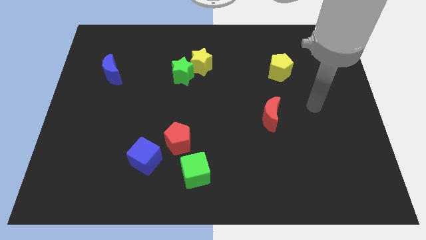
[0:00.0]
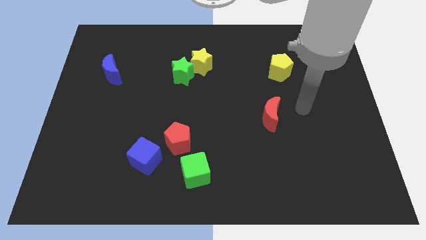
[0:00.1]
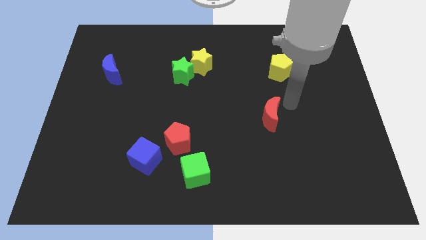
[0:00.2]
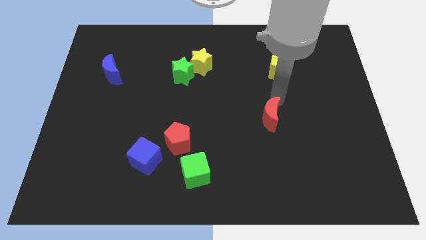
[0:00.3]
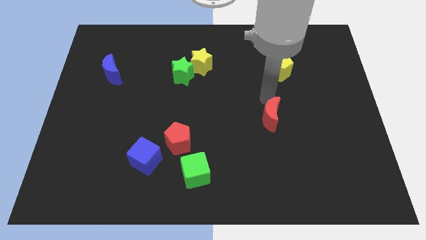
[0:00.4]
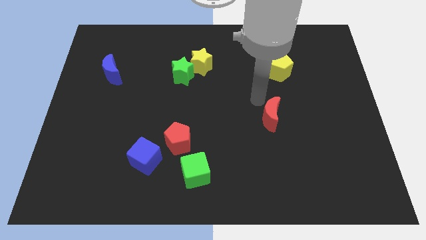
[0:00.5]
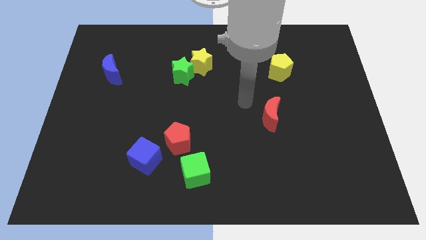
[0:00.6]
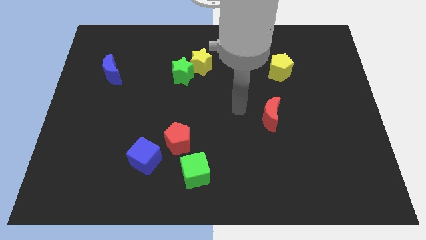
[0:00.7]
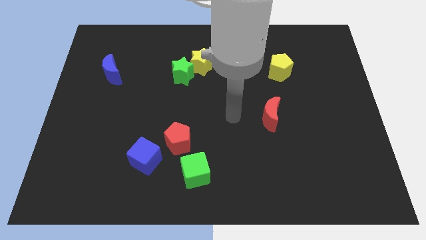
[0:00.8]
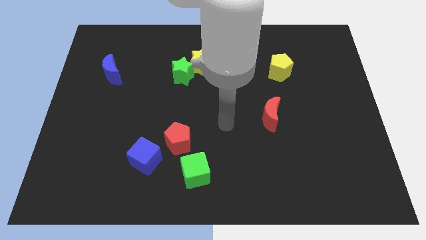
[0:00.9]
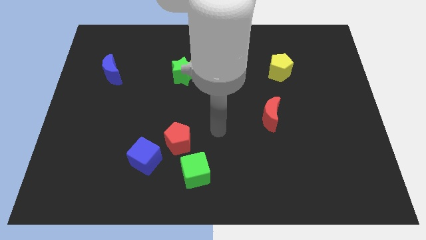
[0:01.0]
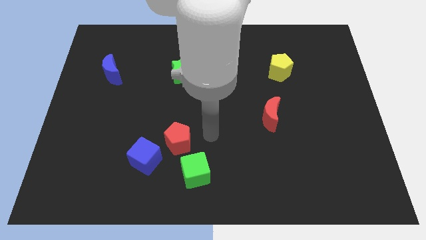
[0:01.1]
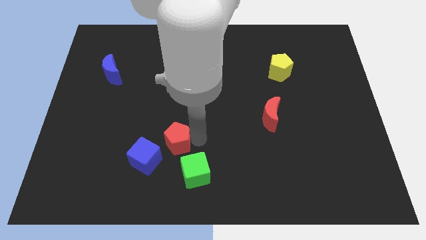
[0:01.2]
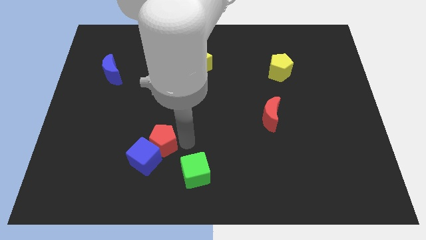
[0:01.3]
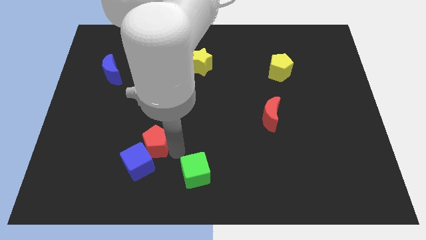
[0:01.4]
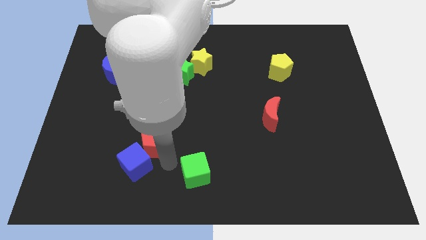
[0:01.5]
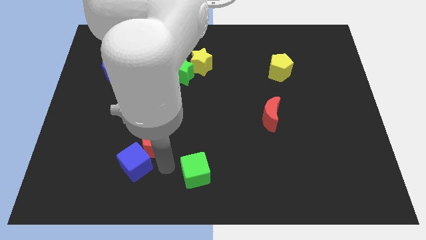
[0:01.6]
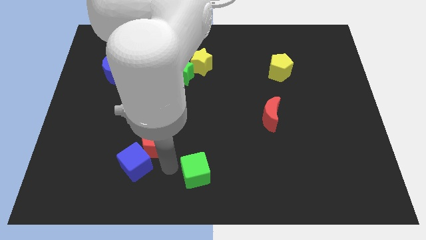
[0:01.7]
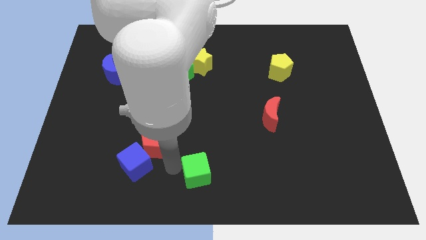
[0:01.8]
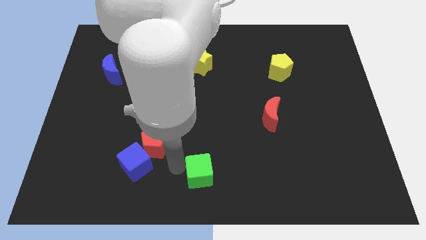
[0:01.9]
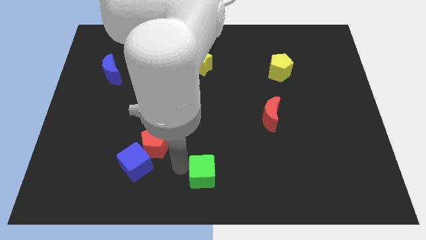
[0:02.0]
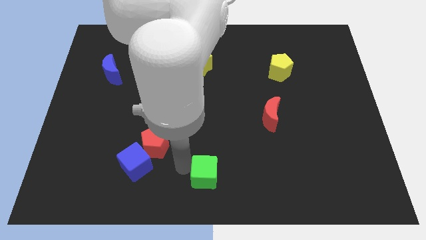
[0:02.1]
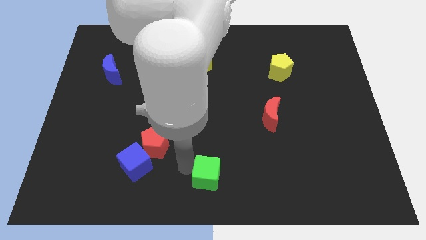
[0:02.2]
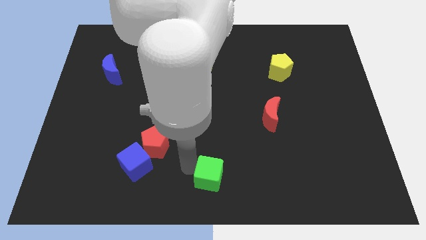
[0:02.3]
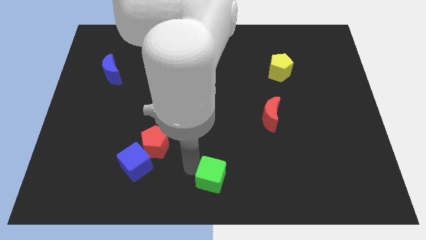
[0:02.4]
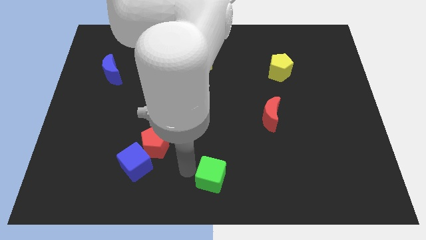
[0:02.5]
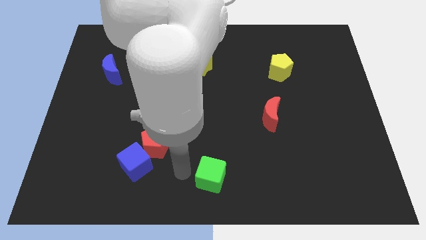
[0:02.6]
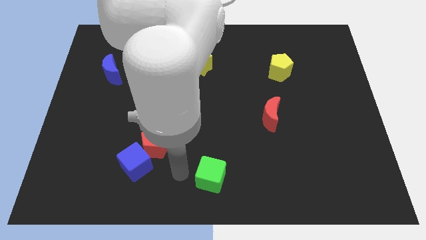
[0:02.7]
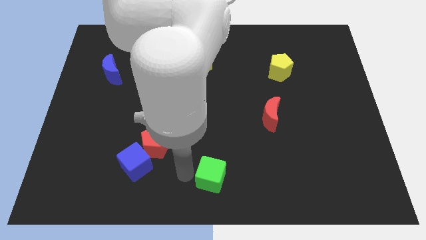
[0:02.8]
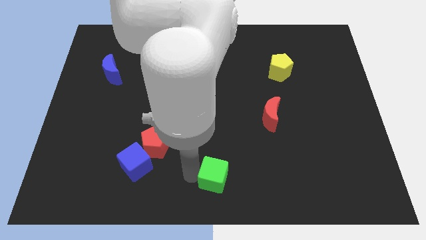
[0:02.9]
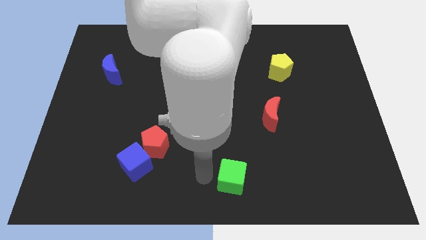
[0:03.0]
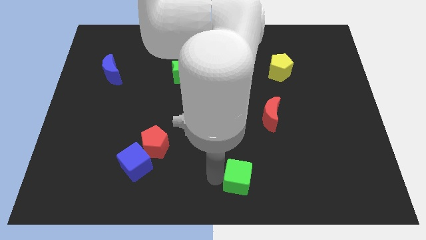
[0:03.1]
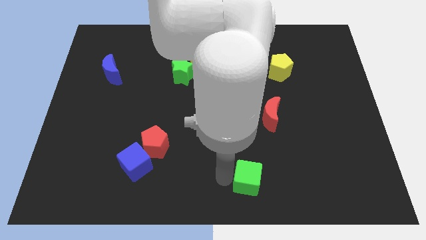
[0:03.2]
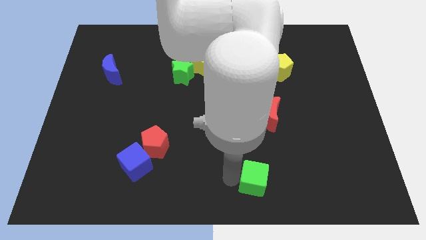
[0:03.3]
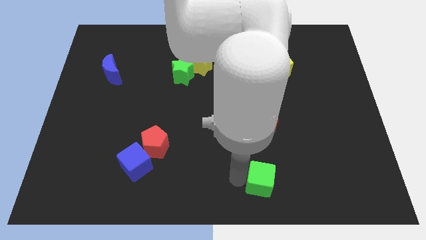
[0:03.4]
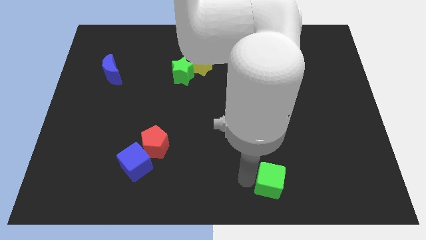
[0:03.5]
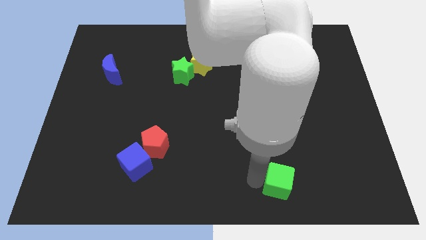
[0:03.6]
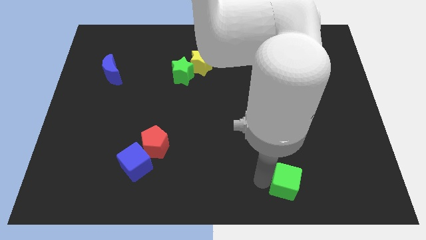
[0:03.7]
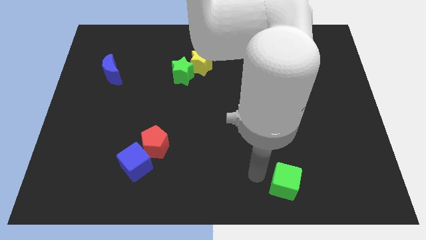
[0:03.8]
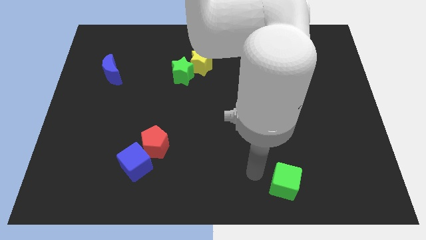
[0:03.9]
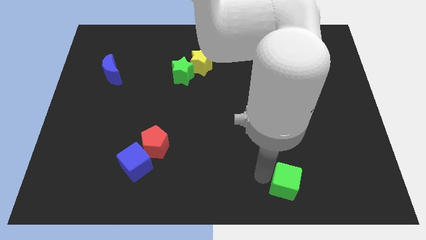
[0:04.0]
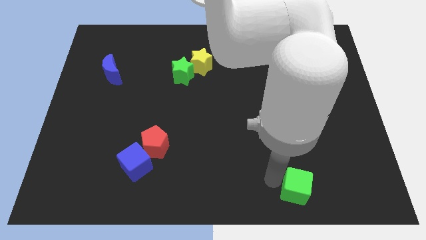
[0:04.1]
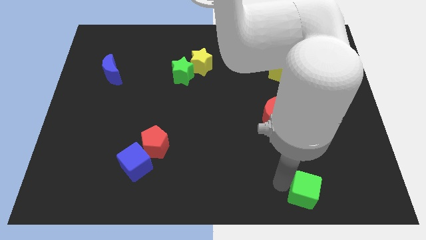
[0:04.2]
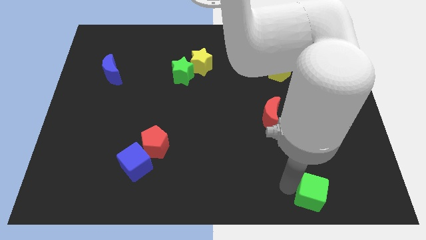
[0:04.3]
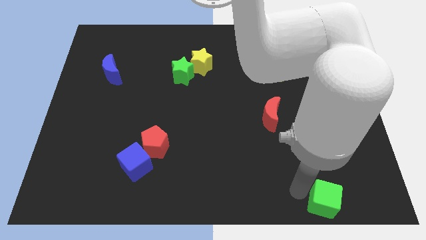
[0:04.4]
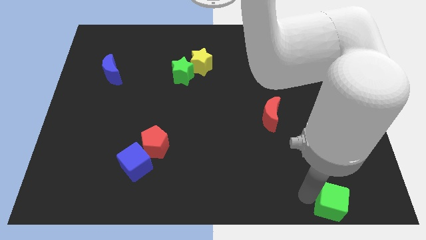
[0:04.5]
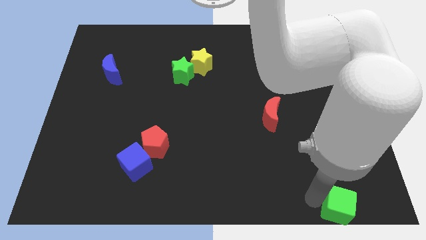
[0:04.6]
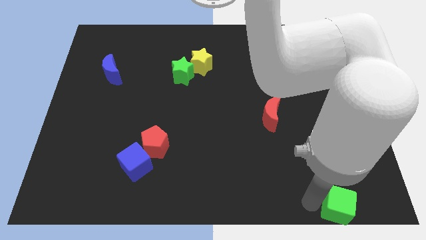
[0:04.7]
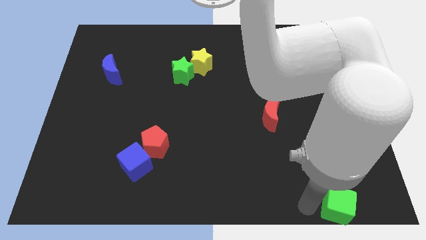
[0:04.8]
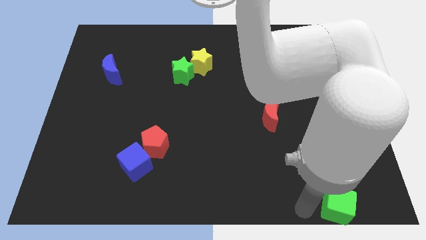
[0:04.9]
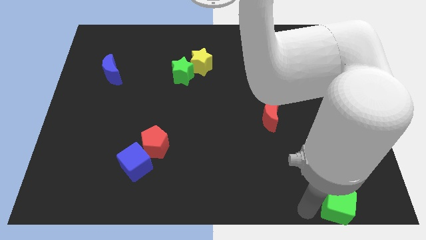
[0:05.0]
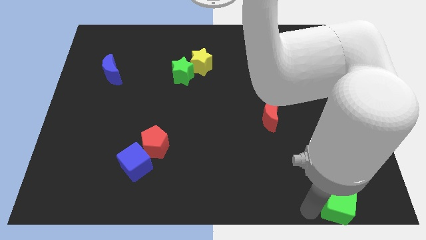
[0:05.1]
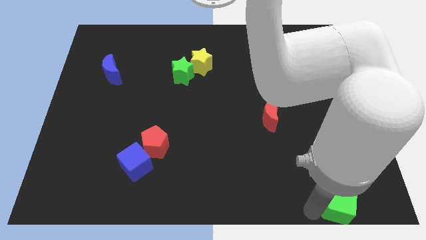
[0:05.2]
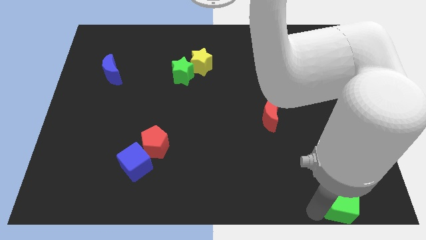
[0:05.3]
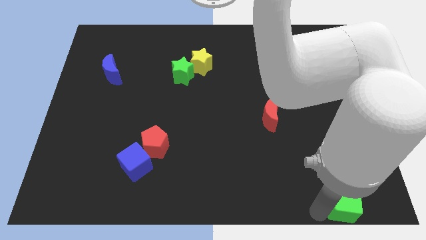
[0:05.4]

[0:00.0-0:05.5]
move the green cube to the lower right corner

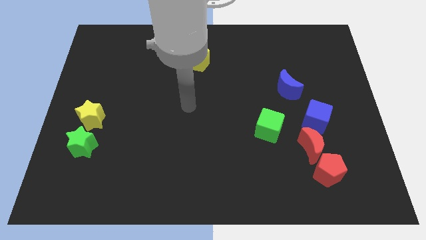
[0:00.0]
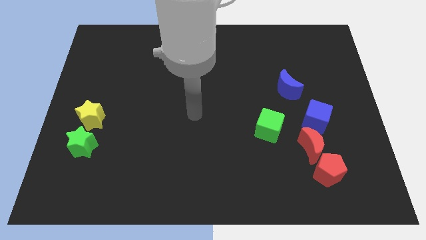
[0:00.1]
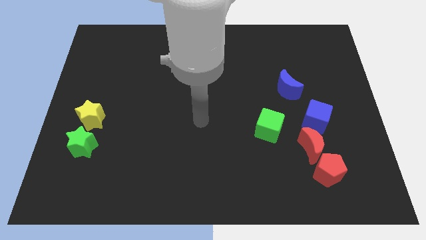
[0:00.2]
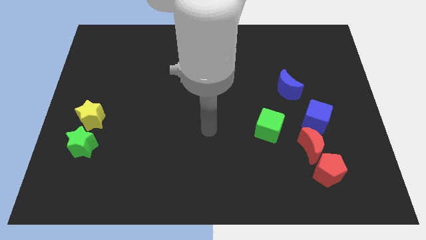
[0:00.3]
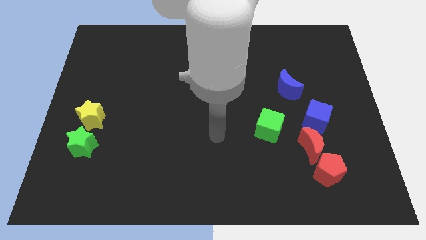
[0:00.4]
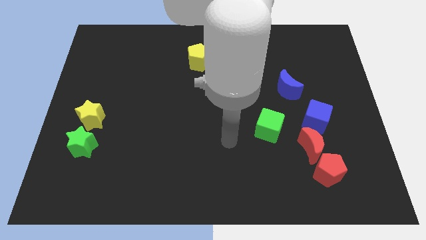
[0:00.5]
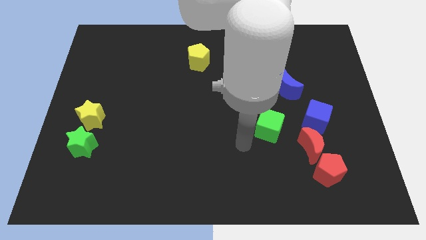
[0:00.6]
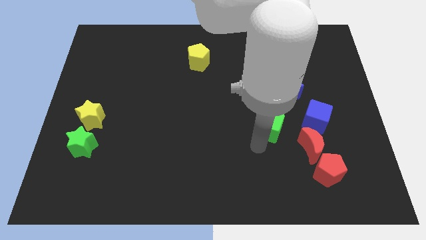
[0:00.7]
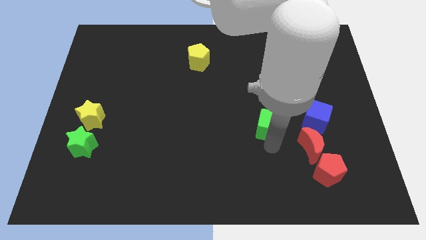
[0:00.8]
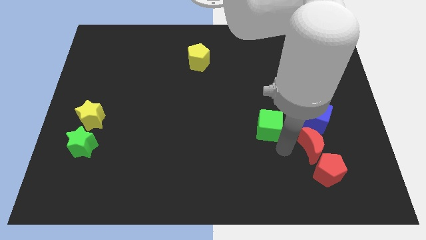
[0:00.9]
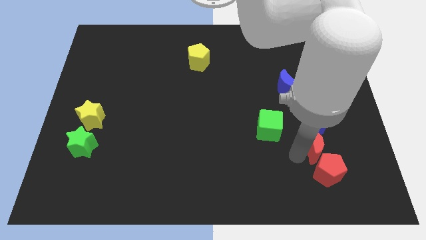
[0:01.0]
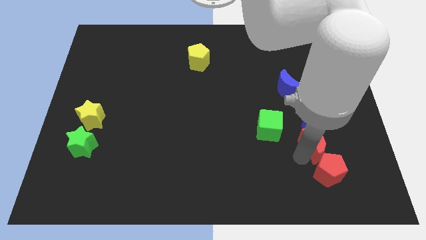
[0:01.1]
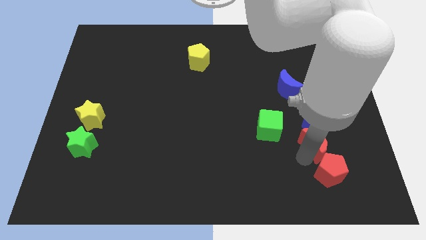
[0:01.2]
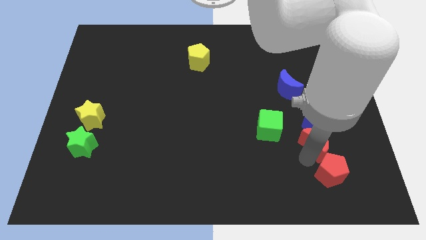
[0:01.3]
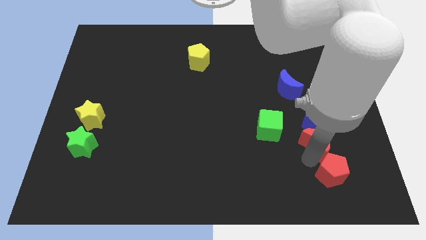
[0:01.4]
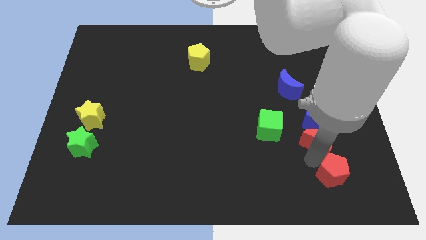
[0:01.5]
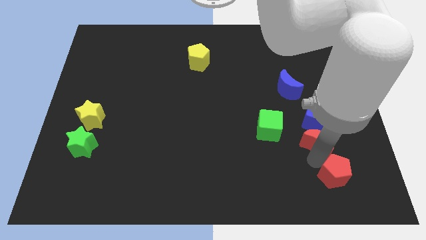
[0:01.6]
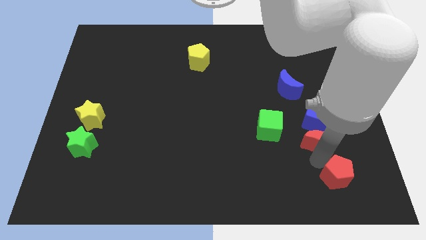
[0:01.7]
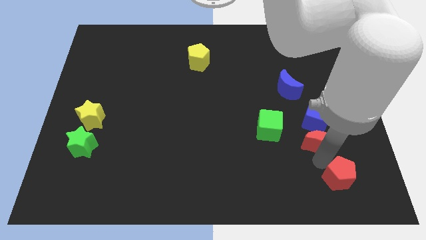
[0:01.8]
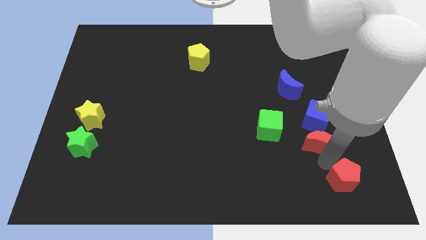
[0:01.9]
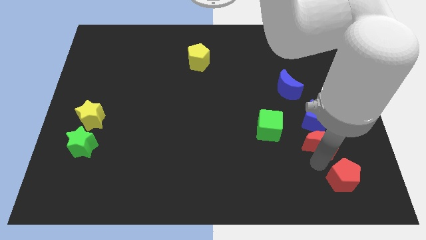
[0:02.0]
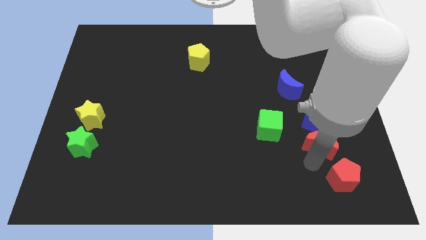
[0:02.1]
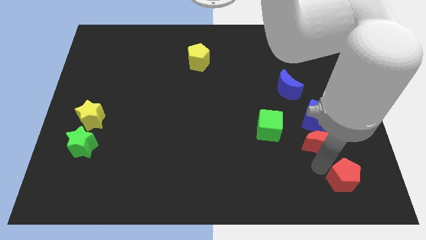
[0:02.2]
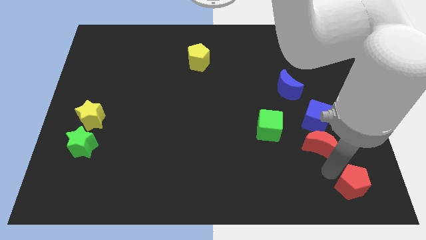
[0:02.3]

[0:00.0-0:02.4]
put the red pentagon to the bottom right of the board
